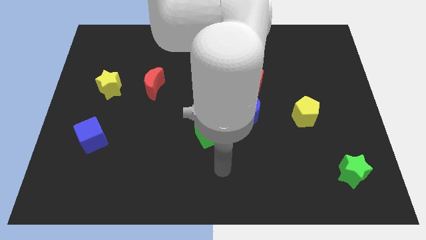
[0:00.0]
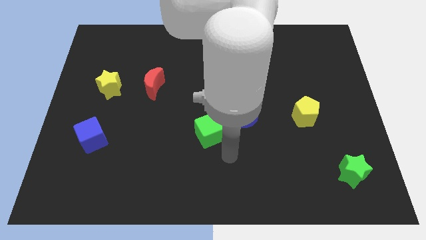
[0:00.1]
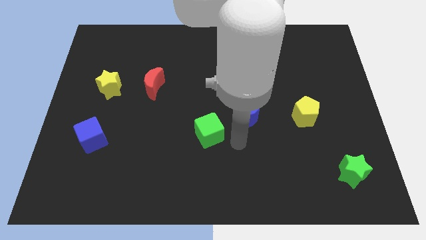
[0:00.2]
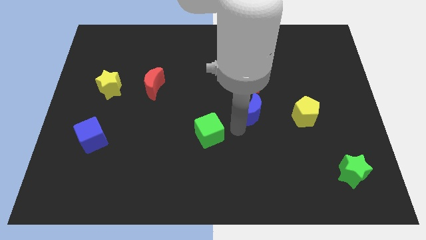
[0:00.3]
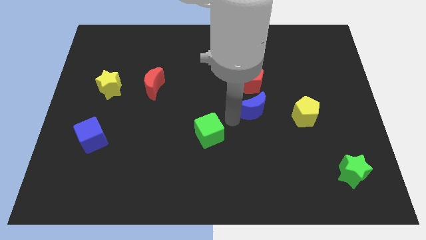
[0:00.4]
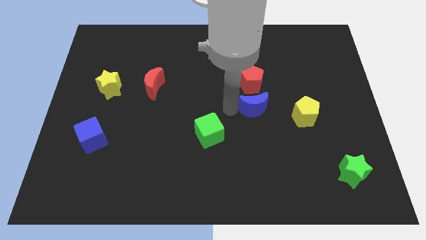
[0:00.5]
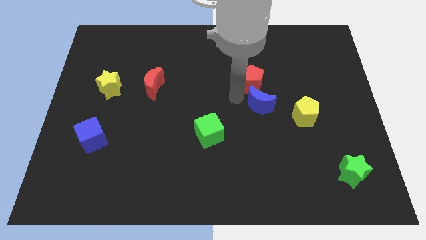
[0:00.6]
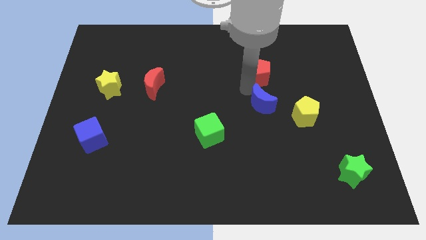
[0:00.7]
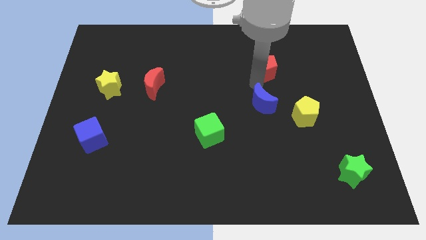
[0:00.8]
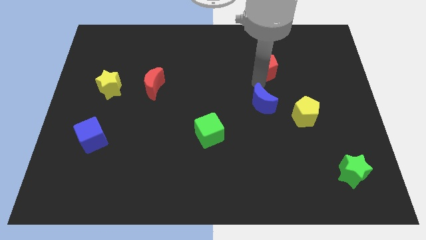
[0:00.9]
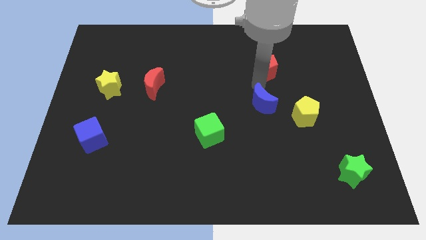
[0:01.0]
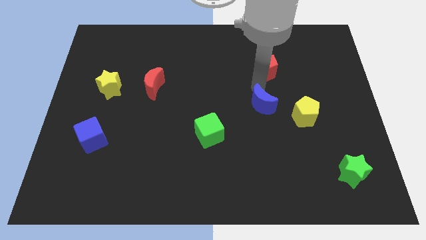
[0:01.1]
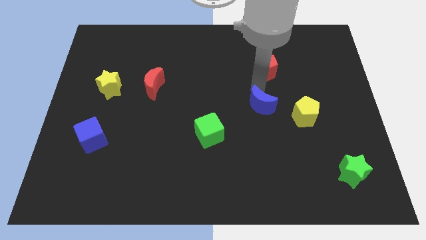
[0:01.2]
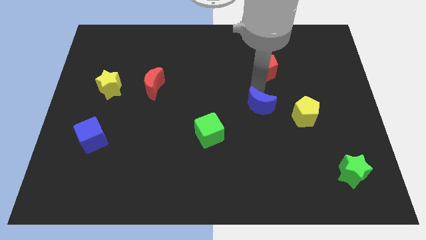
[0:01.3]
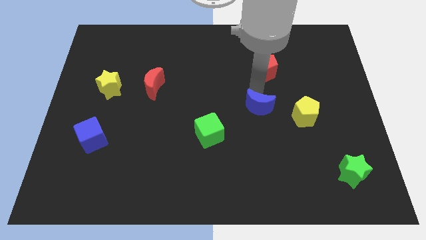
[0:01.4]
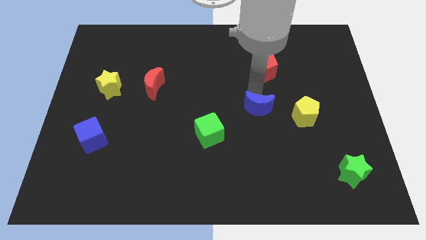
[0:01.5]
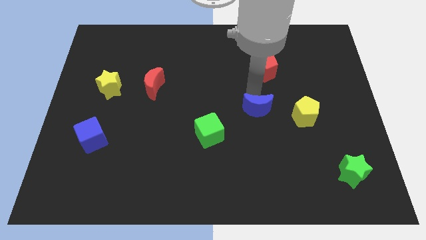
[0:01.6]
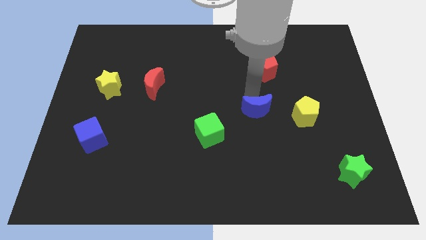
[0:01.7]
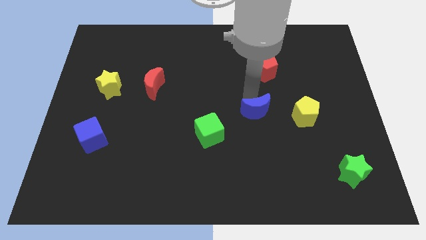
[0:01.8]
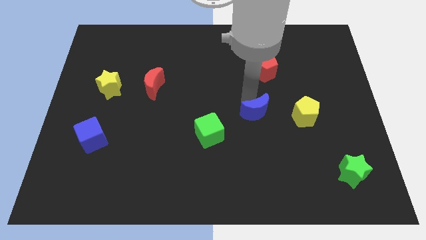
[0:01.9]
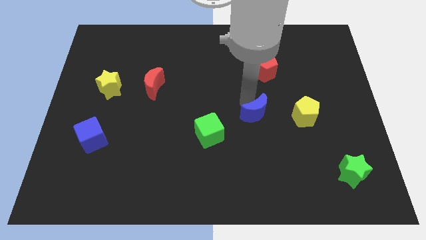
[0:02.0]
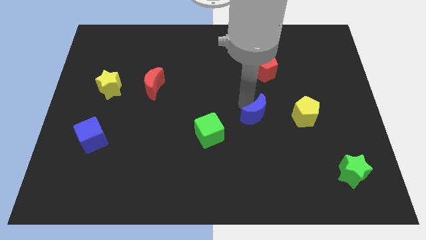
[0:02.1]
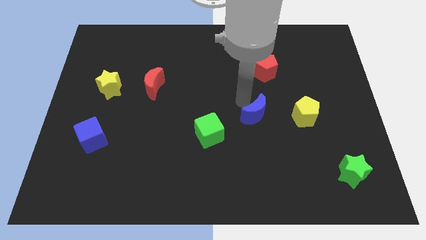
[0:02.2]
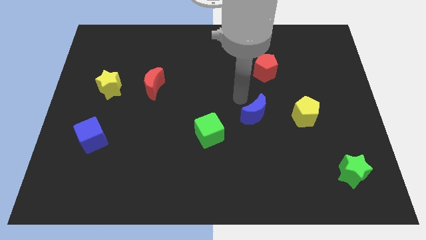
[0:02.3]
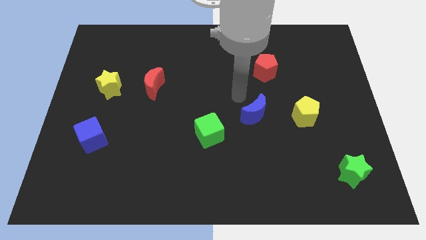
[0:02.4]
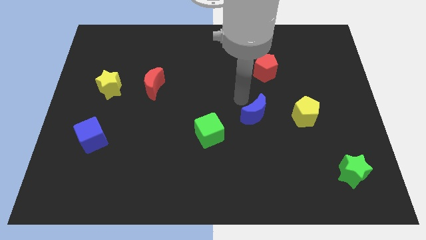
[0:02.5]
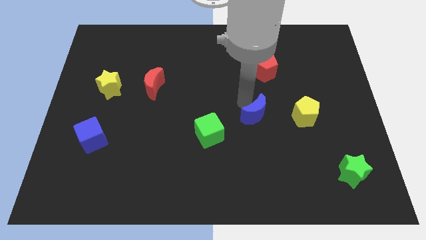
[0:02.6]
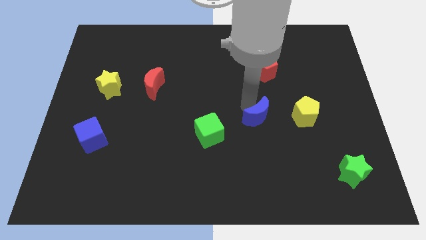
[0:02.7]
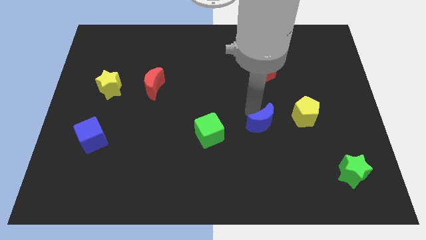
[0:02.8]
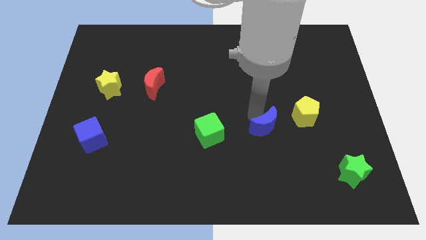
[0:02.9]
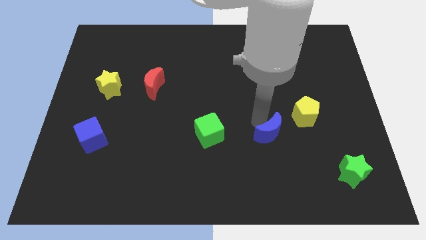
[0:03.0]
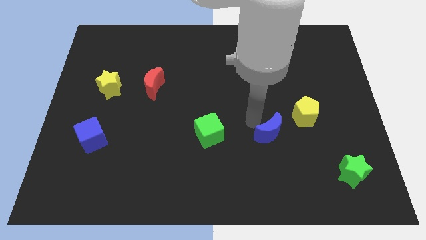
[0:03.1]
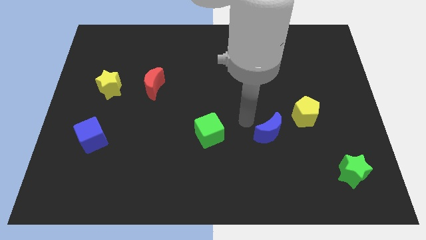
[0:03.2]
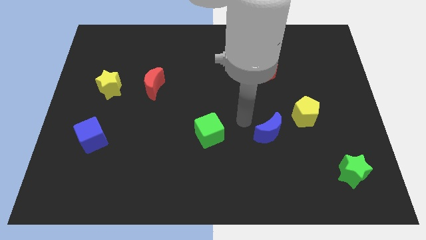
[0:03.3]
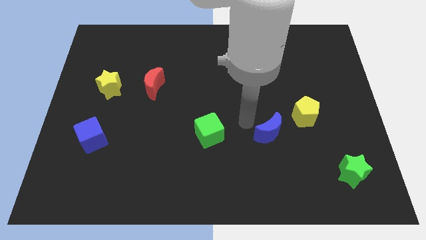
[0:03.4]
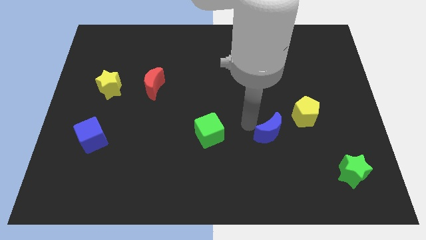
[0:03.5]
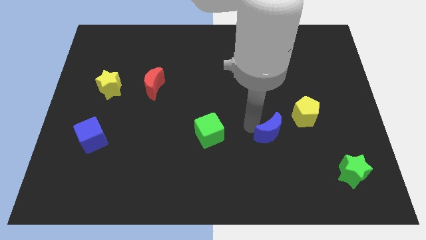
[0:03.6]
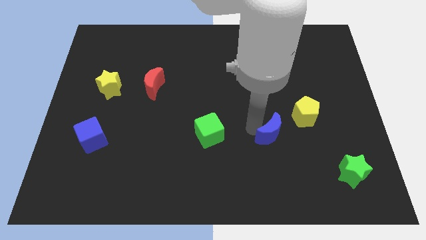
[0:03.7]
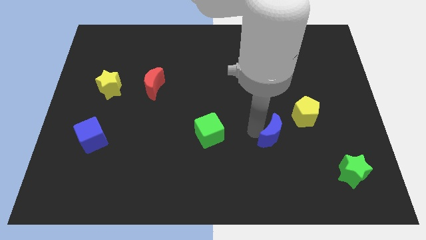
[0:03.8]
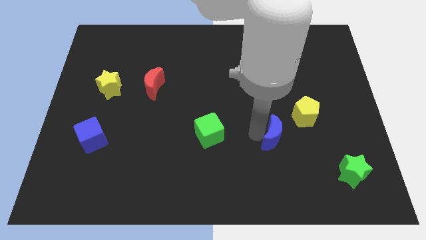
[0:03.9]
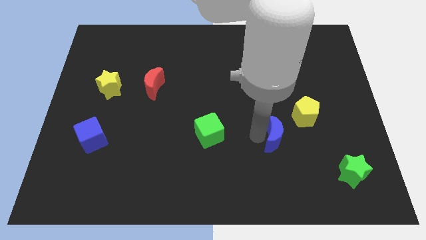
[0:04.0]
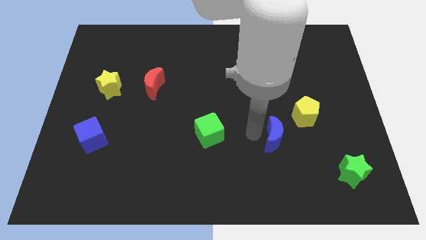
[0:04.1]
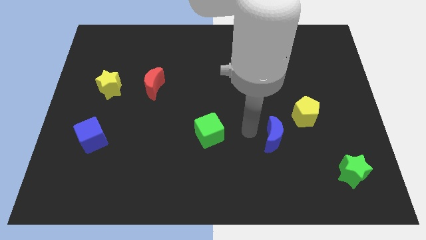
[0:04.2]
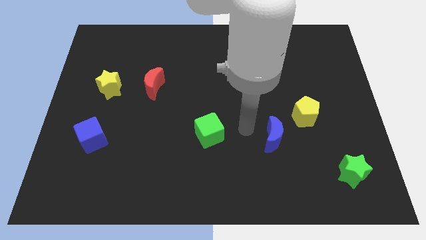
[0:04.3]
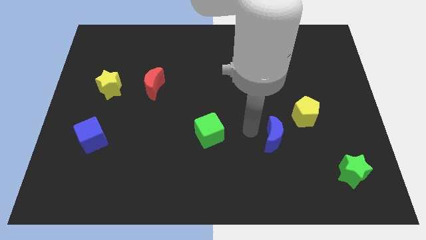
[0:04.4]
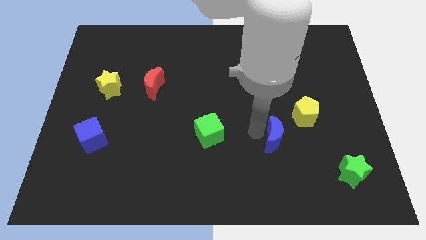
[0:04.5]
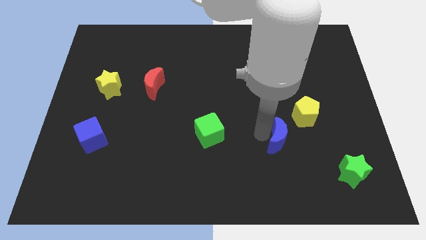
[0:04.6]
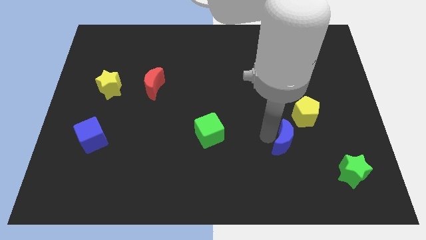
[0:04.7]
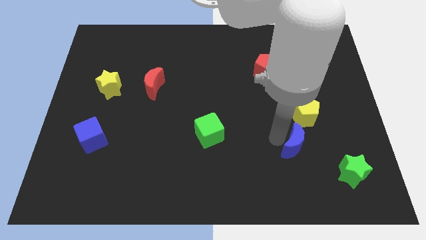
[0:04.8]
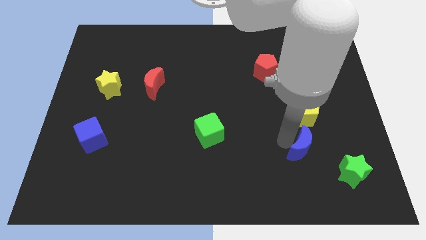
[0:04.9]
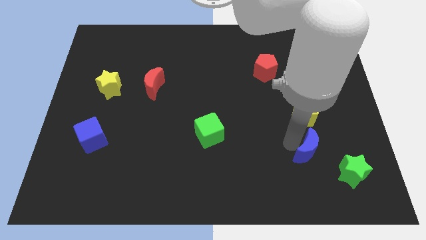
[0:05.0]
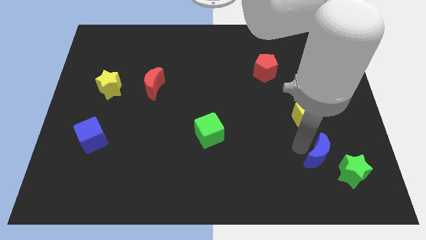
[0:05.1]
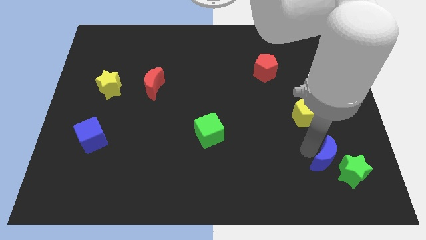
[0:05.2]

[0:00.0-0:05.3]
push the blue moon next to the green star

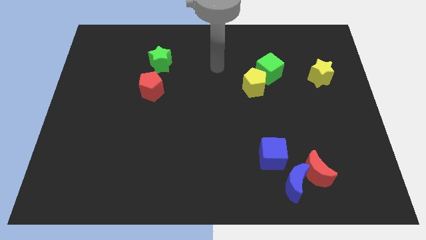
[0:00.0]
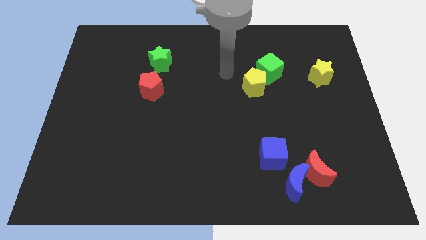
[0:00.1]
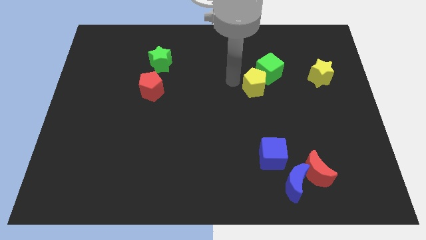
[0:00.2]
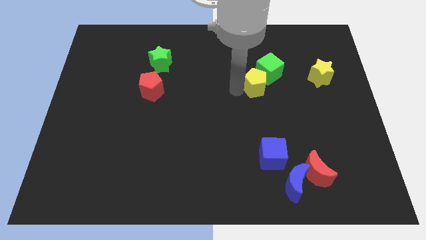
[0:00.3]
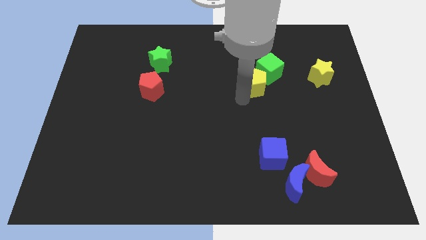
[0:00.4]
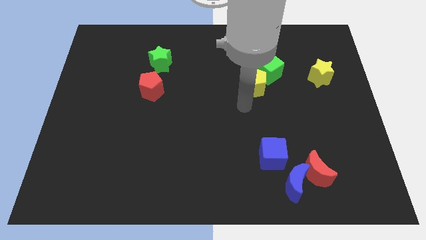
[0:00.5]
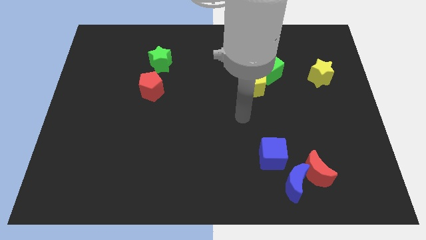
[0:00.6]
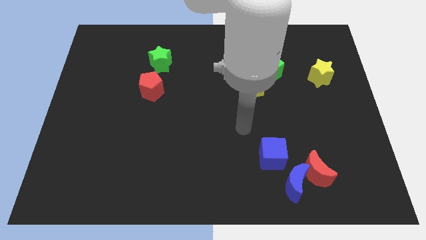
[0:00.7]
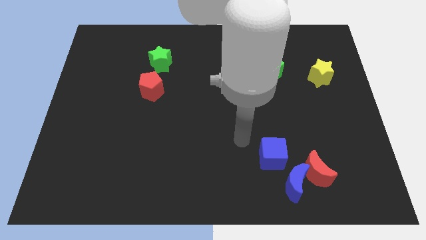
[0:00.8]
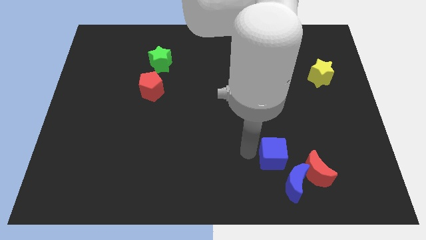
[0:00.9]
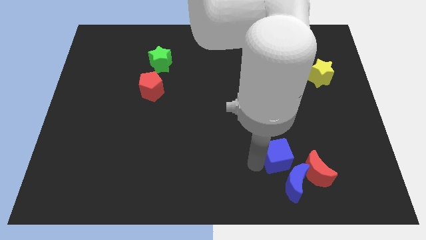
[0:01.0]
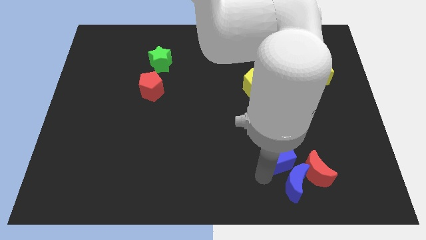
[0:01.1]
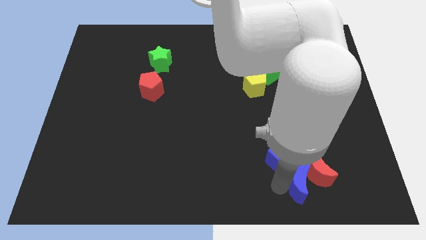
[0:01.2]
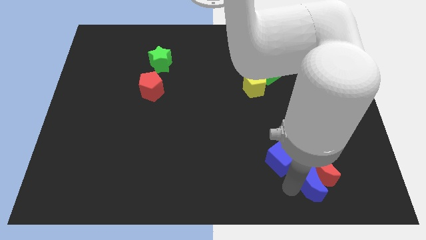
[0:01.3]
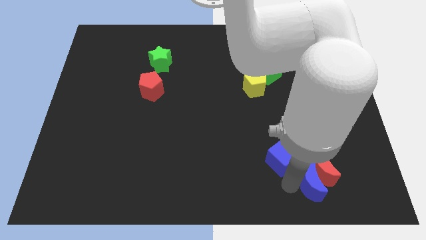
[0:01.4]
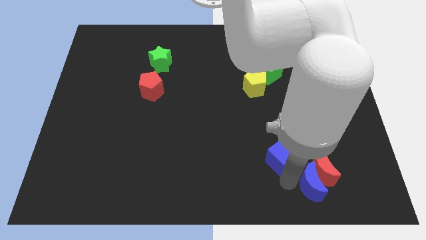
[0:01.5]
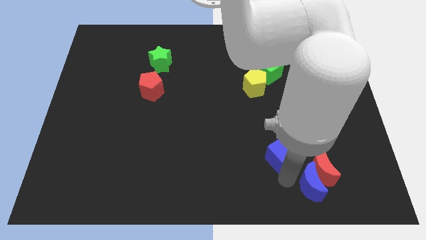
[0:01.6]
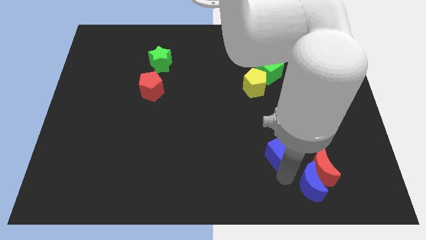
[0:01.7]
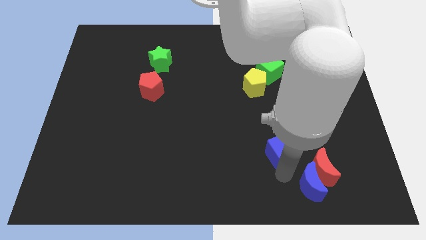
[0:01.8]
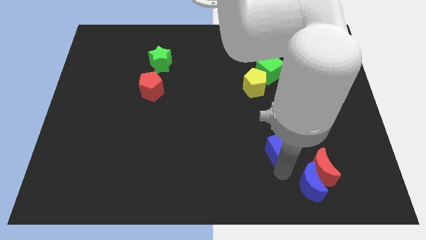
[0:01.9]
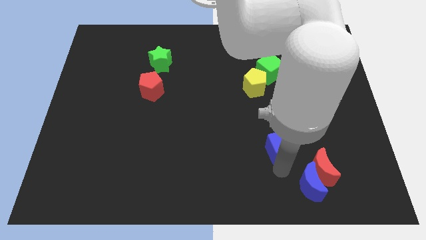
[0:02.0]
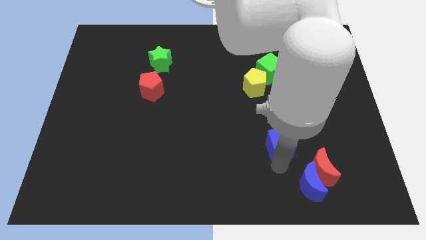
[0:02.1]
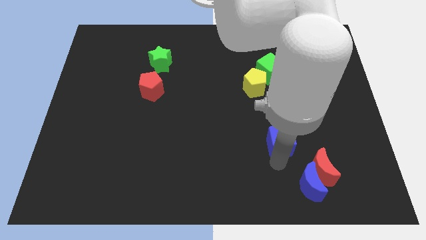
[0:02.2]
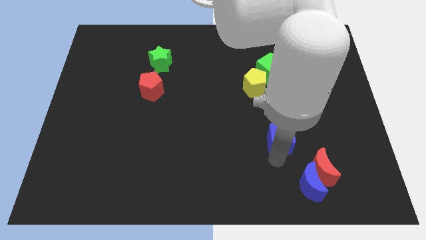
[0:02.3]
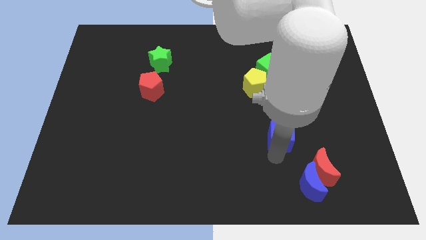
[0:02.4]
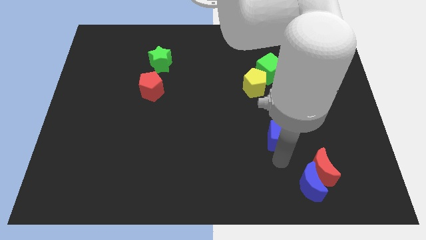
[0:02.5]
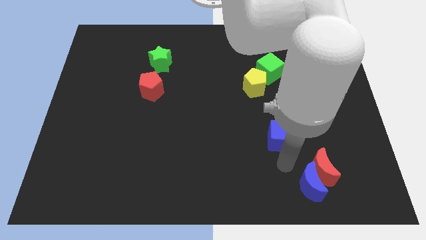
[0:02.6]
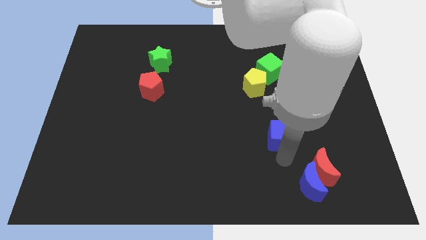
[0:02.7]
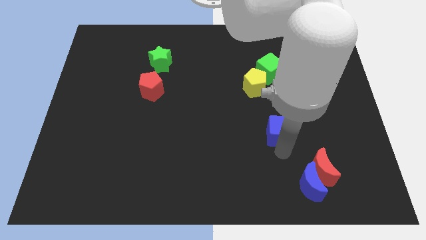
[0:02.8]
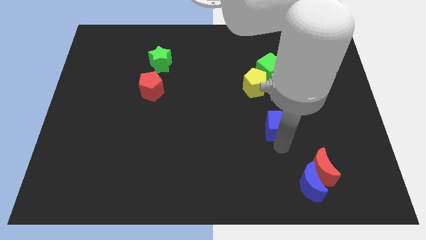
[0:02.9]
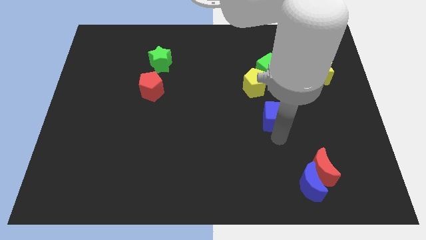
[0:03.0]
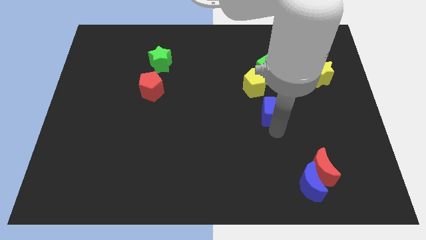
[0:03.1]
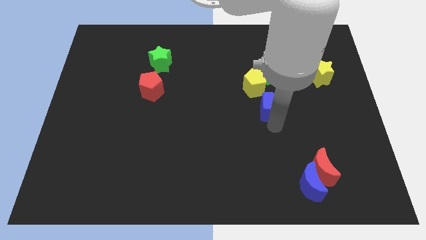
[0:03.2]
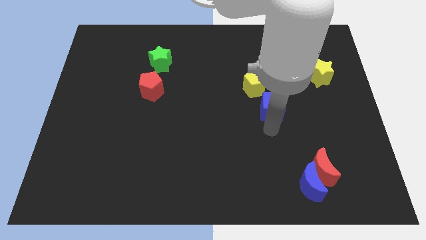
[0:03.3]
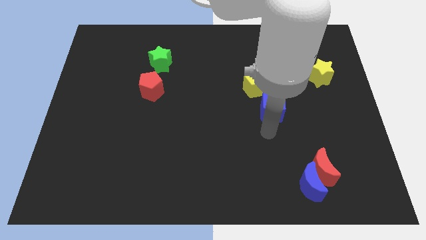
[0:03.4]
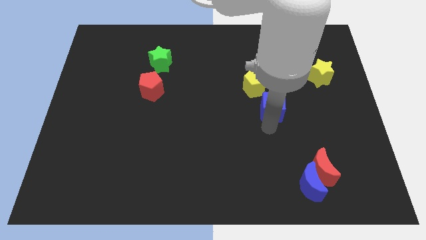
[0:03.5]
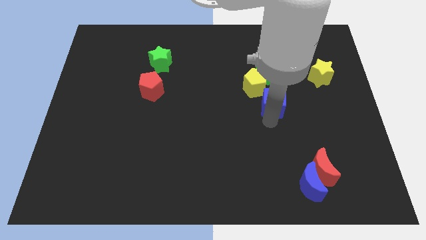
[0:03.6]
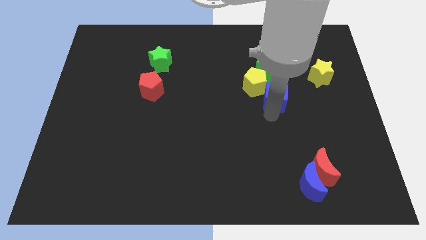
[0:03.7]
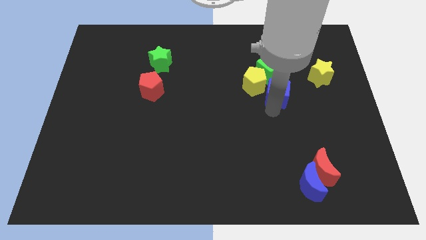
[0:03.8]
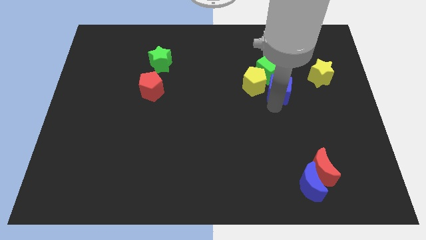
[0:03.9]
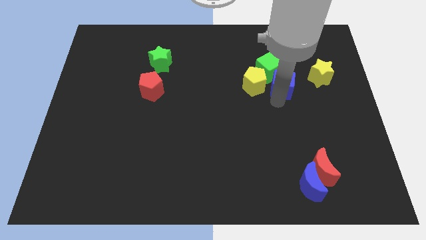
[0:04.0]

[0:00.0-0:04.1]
put the blue cube next to the green cube
